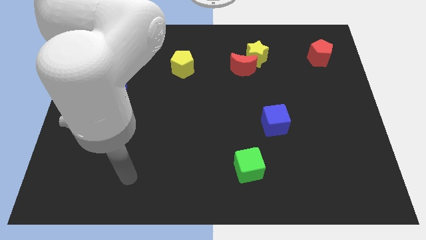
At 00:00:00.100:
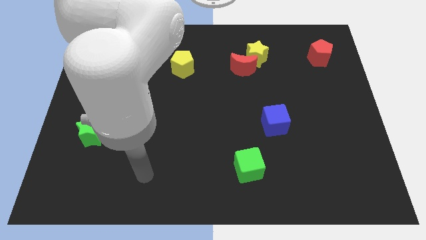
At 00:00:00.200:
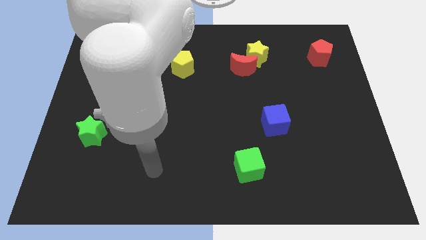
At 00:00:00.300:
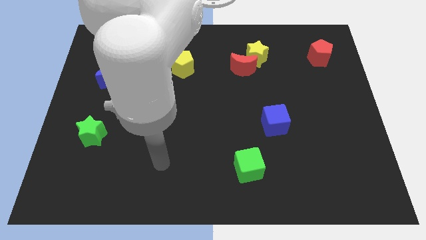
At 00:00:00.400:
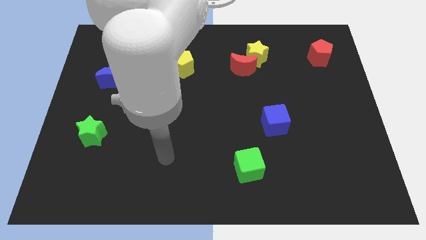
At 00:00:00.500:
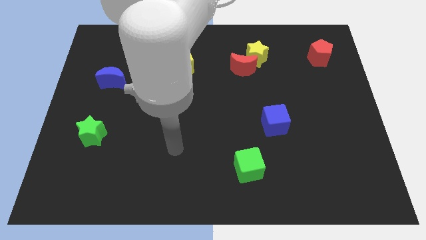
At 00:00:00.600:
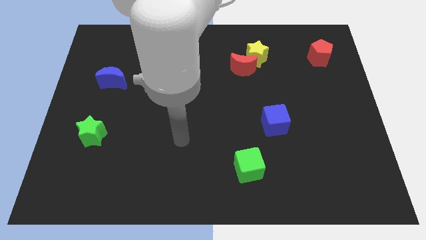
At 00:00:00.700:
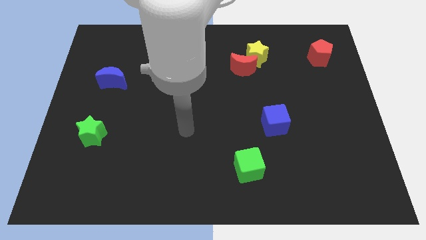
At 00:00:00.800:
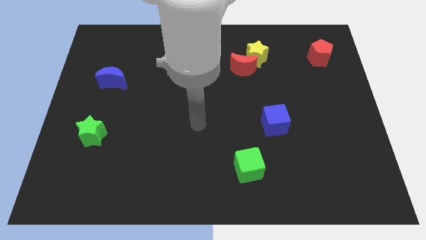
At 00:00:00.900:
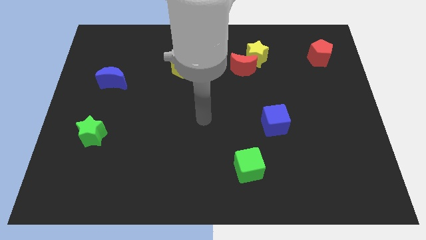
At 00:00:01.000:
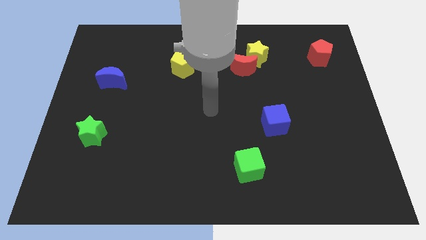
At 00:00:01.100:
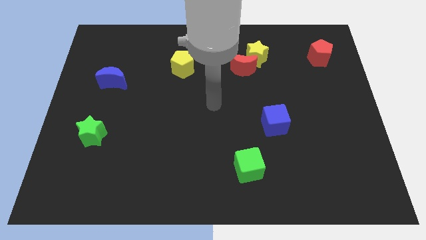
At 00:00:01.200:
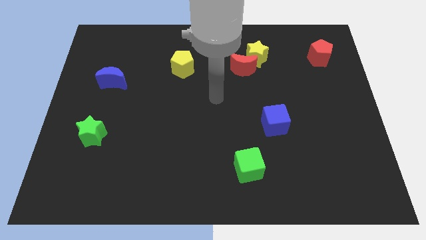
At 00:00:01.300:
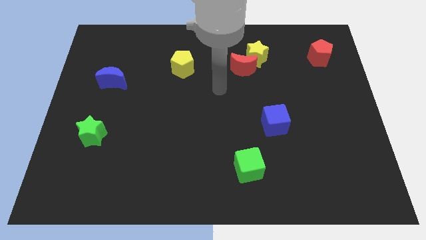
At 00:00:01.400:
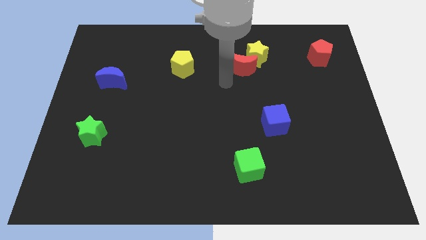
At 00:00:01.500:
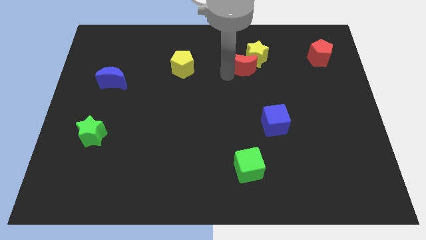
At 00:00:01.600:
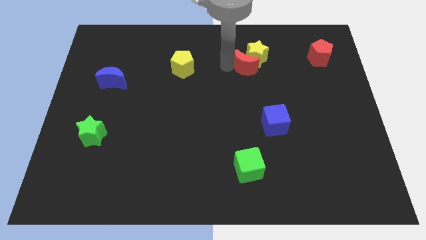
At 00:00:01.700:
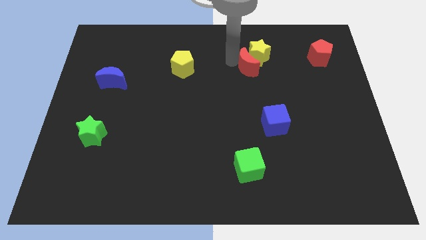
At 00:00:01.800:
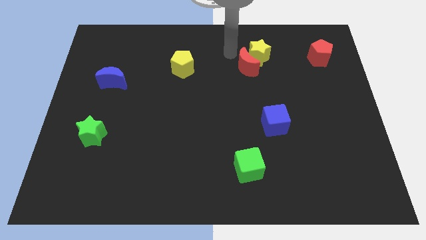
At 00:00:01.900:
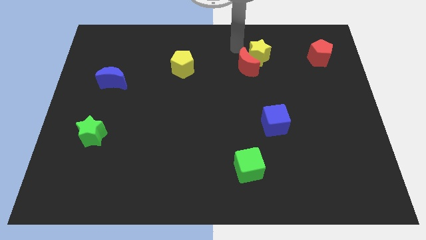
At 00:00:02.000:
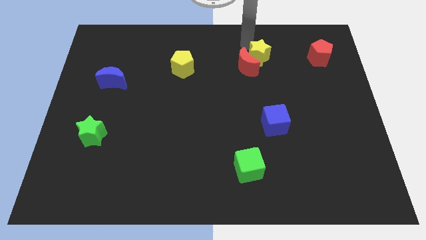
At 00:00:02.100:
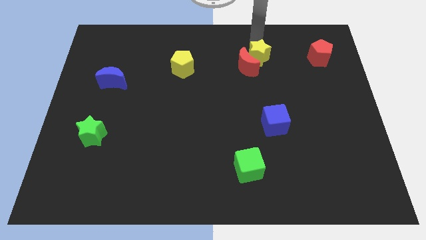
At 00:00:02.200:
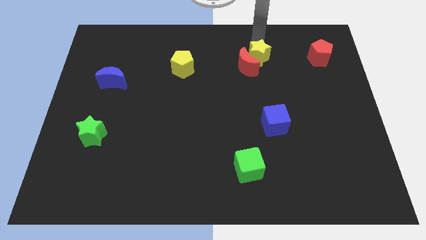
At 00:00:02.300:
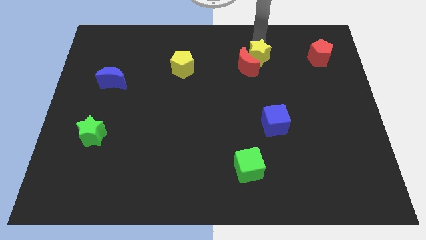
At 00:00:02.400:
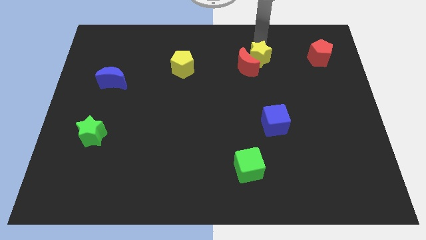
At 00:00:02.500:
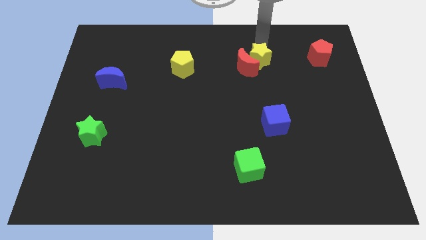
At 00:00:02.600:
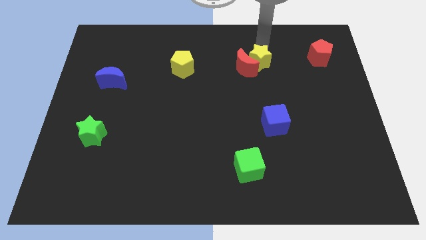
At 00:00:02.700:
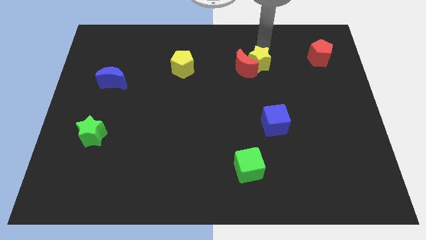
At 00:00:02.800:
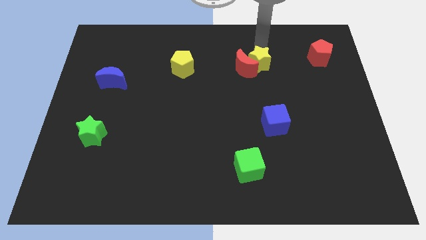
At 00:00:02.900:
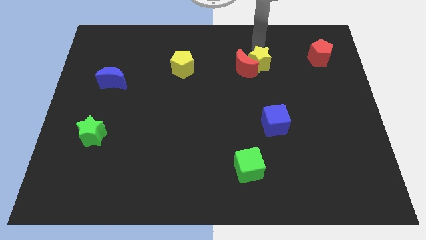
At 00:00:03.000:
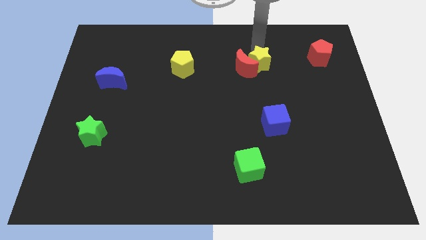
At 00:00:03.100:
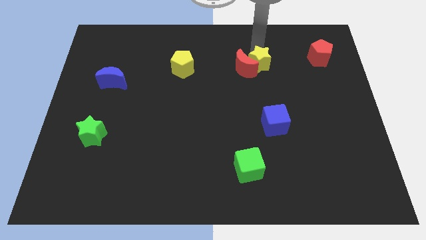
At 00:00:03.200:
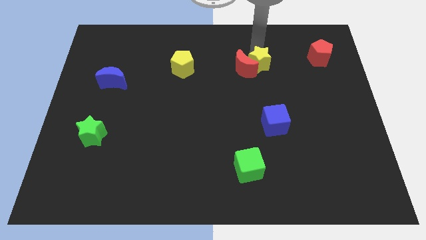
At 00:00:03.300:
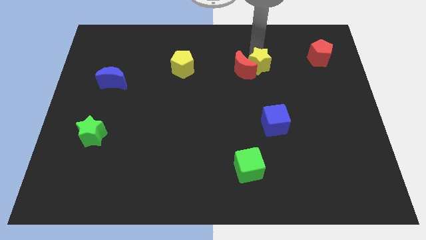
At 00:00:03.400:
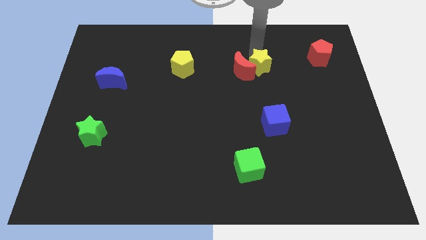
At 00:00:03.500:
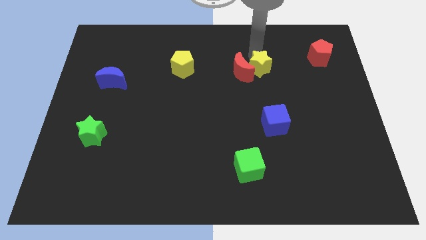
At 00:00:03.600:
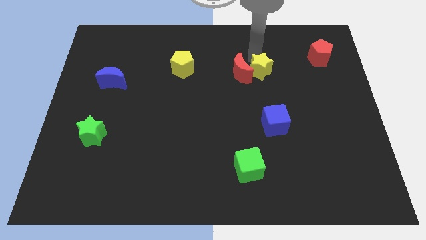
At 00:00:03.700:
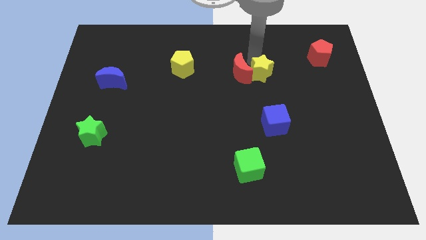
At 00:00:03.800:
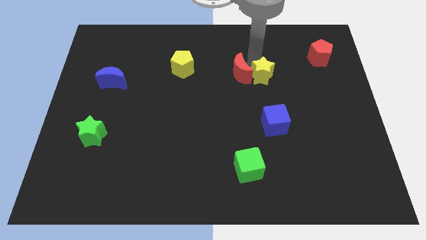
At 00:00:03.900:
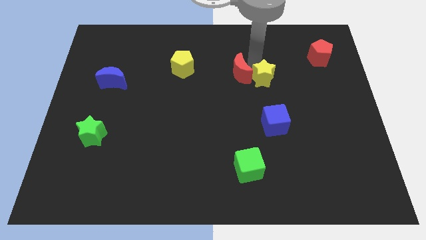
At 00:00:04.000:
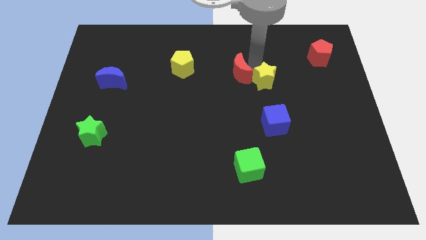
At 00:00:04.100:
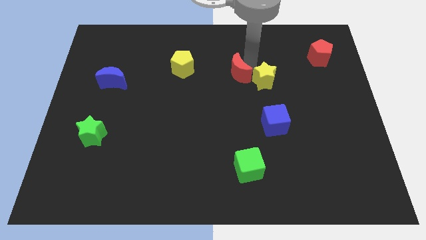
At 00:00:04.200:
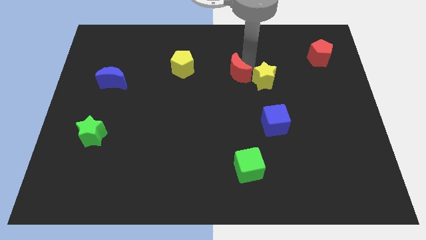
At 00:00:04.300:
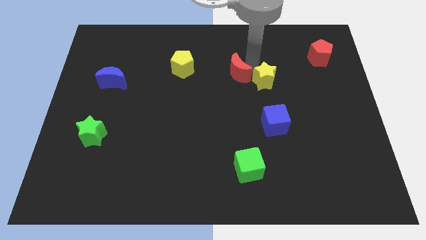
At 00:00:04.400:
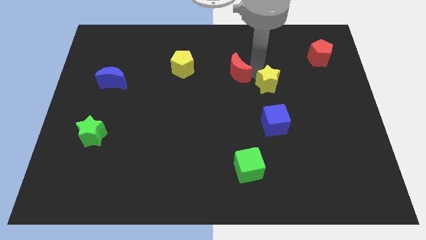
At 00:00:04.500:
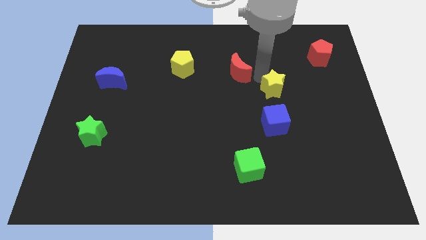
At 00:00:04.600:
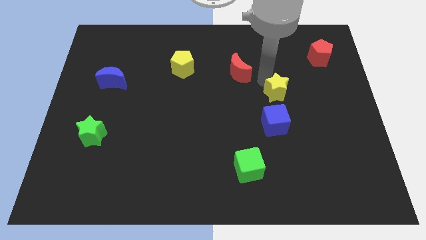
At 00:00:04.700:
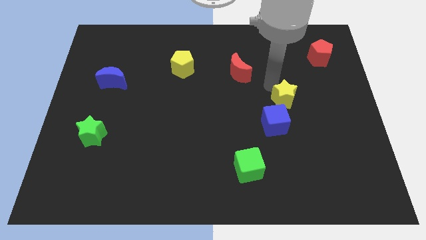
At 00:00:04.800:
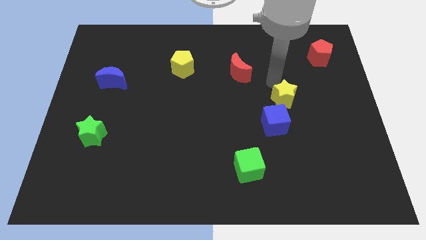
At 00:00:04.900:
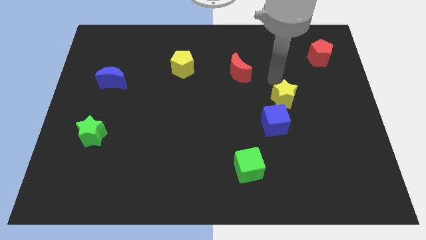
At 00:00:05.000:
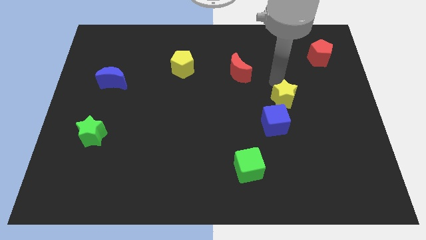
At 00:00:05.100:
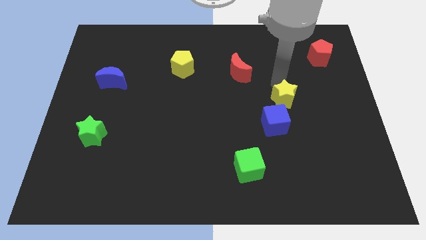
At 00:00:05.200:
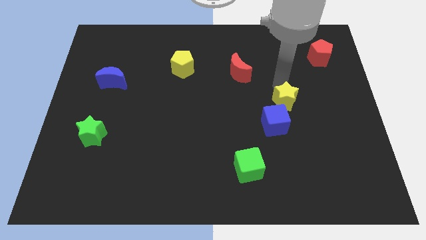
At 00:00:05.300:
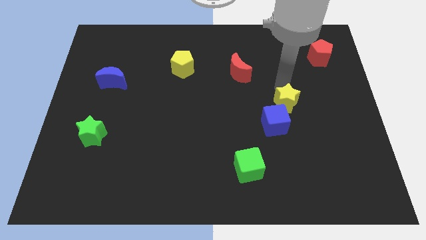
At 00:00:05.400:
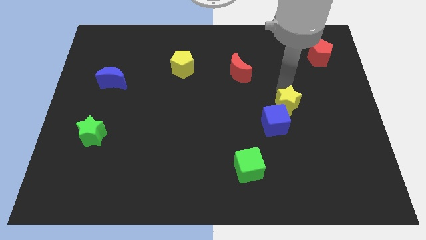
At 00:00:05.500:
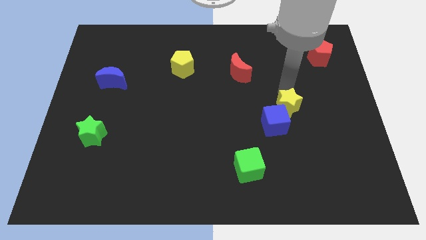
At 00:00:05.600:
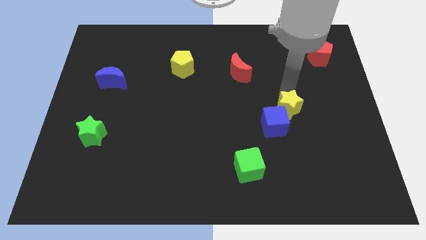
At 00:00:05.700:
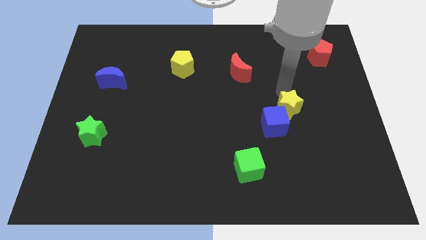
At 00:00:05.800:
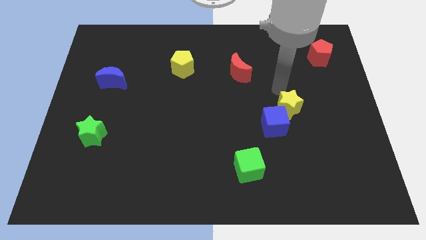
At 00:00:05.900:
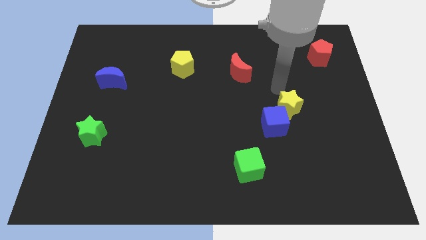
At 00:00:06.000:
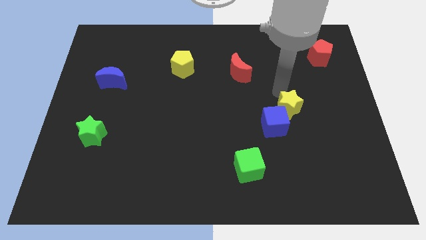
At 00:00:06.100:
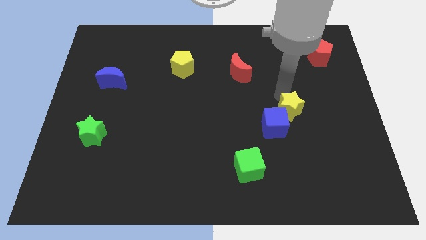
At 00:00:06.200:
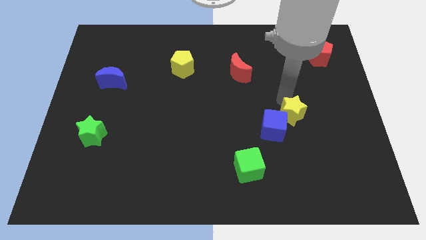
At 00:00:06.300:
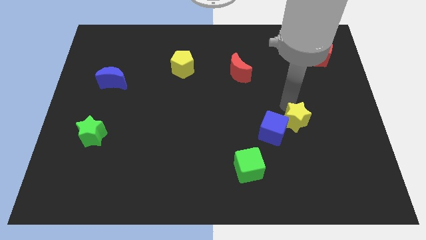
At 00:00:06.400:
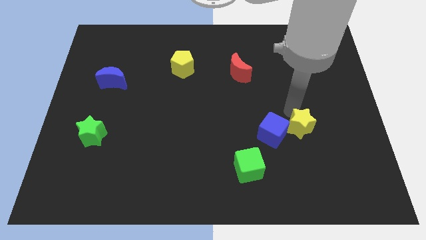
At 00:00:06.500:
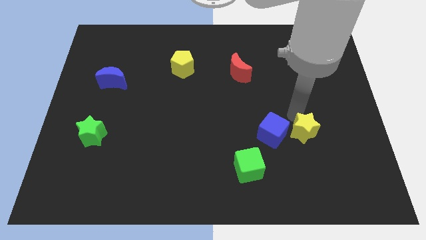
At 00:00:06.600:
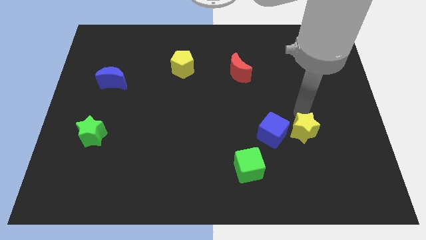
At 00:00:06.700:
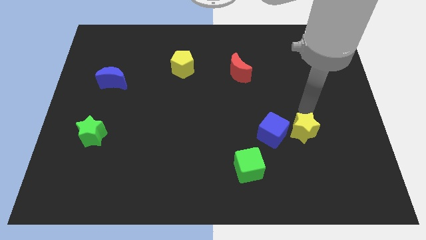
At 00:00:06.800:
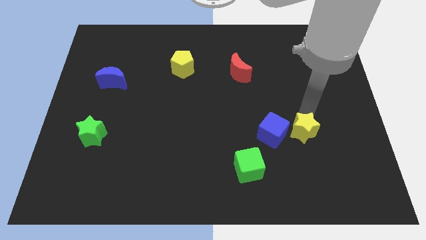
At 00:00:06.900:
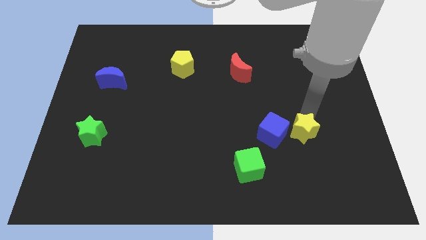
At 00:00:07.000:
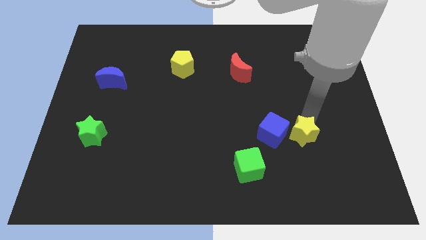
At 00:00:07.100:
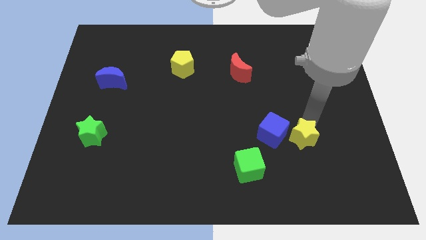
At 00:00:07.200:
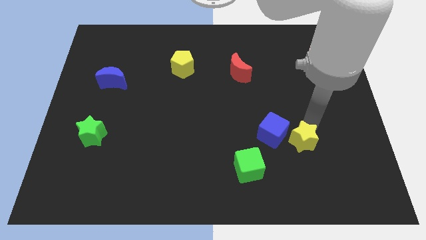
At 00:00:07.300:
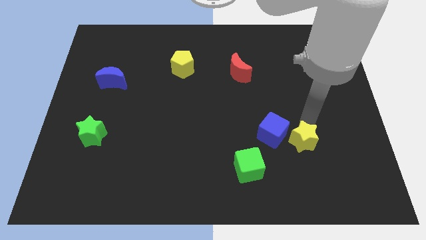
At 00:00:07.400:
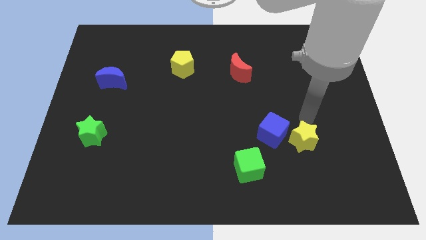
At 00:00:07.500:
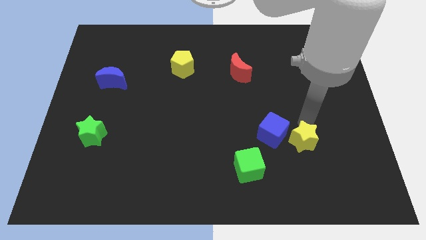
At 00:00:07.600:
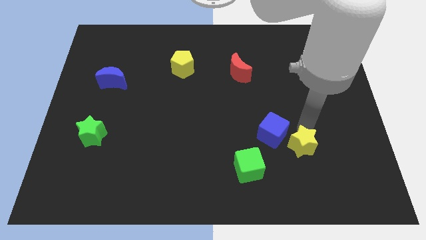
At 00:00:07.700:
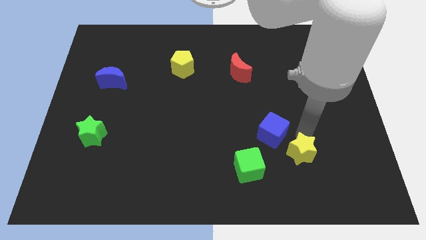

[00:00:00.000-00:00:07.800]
slide the yellow star just right of the green cube
